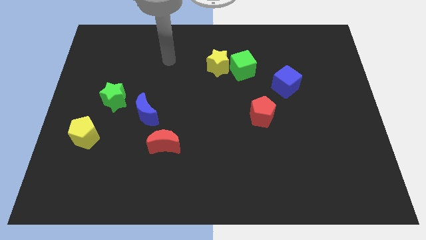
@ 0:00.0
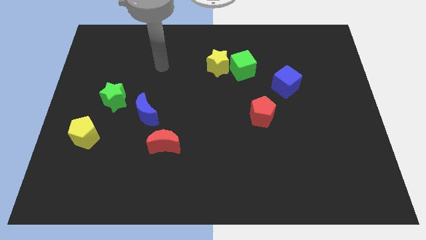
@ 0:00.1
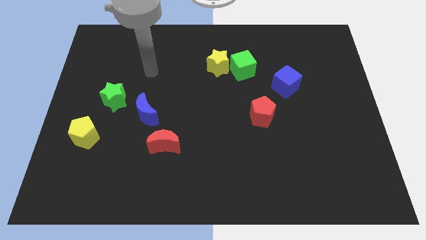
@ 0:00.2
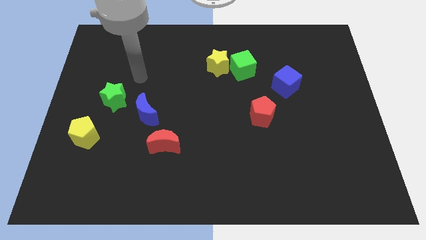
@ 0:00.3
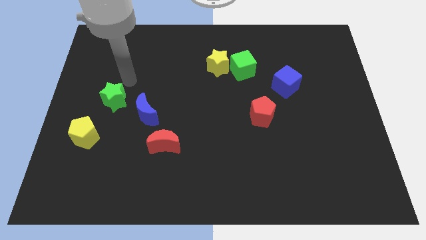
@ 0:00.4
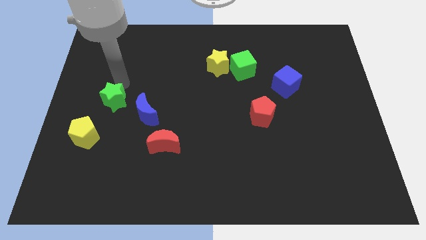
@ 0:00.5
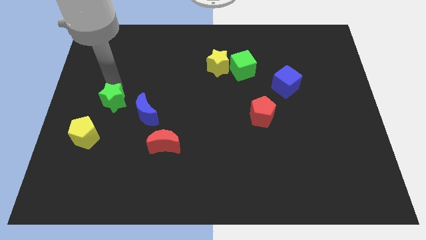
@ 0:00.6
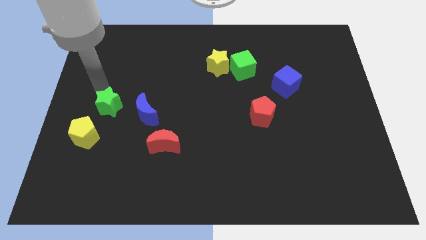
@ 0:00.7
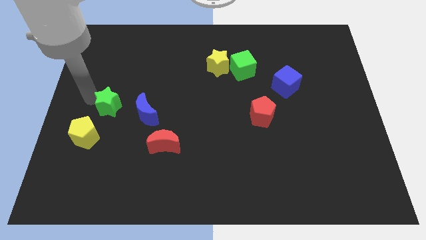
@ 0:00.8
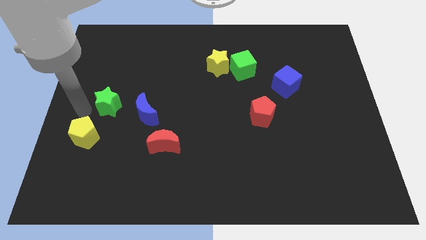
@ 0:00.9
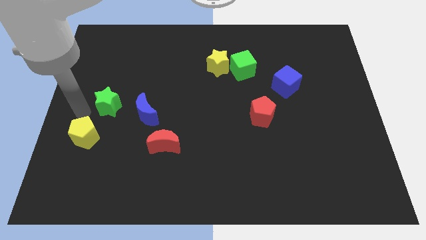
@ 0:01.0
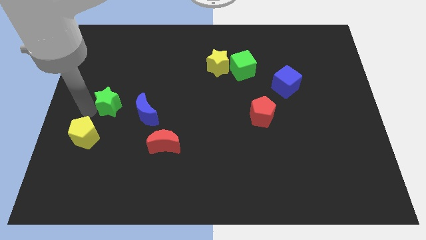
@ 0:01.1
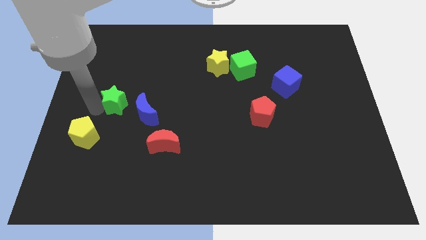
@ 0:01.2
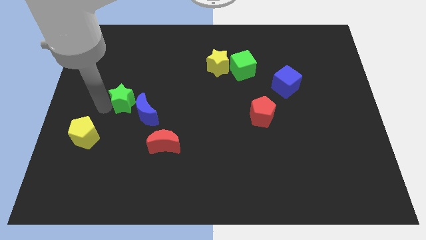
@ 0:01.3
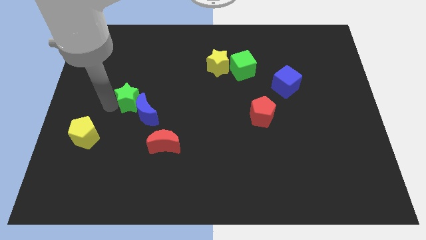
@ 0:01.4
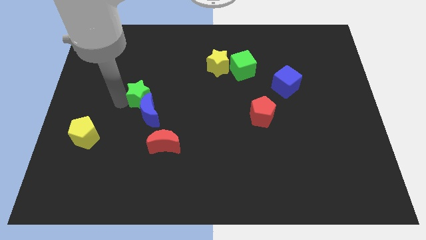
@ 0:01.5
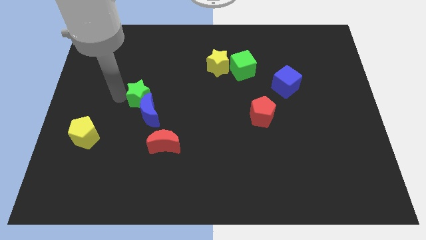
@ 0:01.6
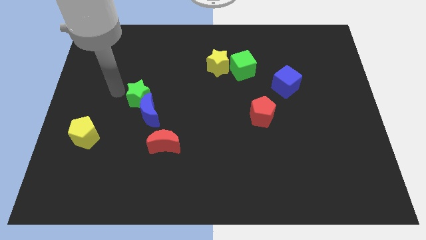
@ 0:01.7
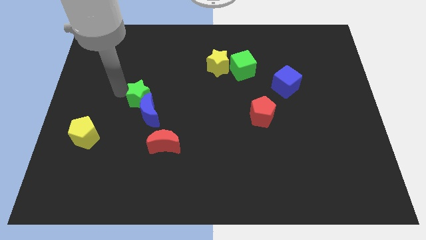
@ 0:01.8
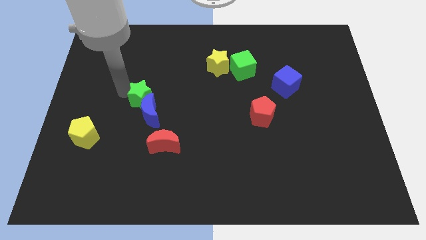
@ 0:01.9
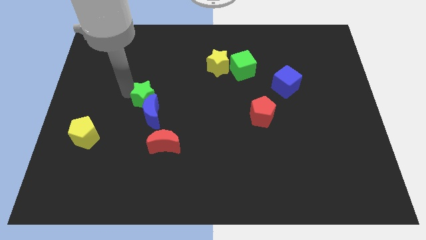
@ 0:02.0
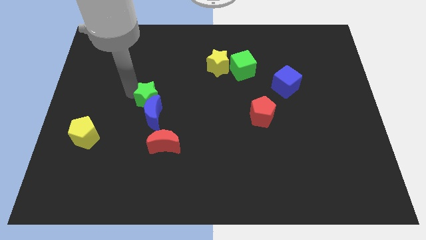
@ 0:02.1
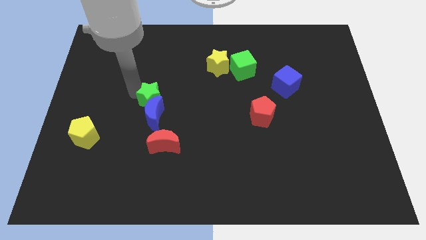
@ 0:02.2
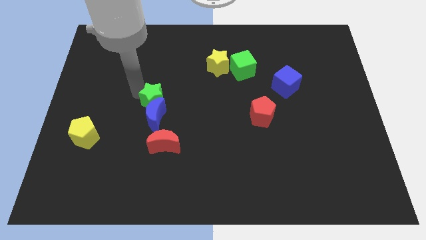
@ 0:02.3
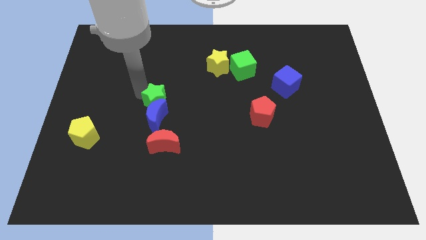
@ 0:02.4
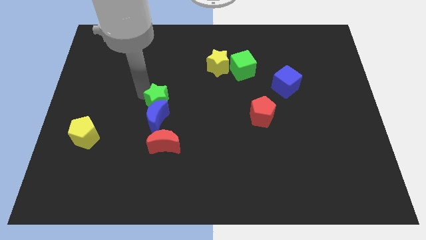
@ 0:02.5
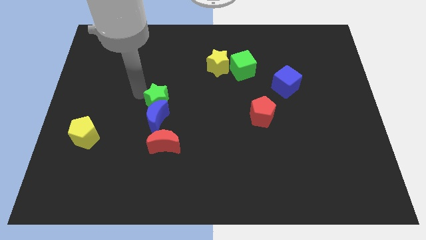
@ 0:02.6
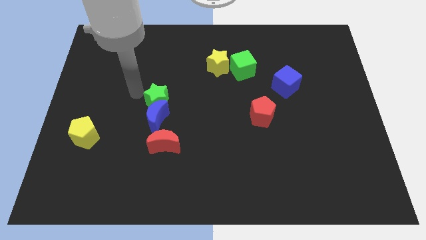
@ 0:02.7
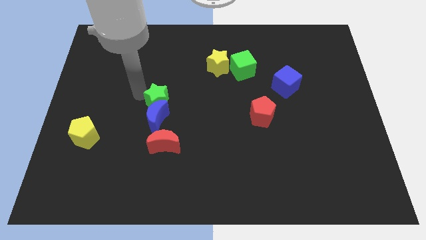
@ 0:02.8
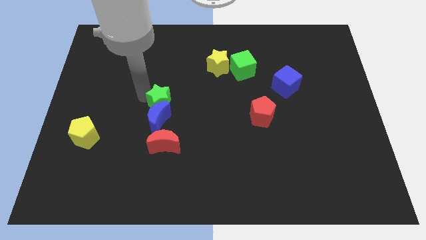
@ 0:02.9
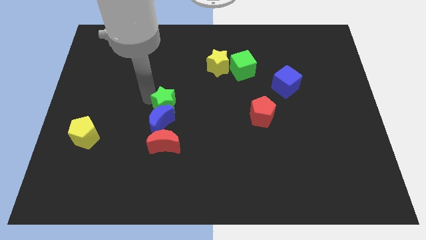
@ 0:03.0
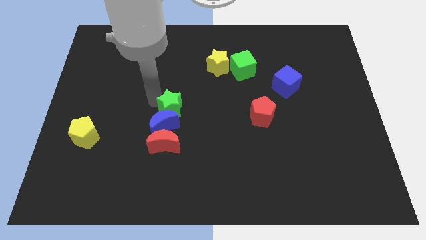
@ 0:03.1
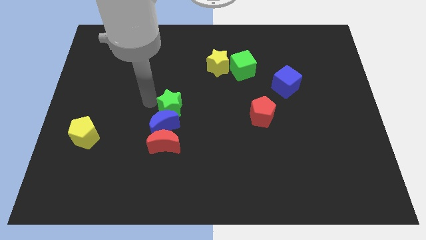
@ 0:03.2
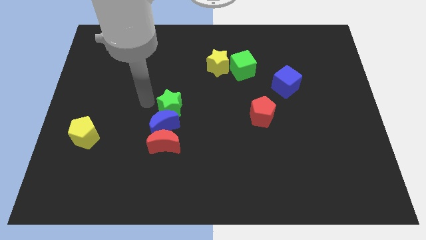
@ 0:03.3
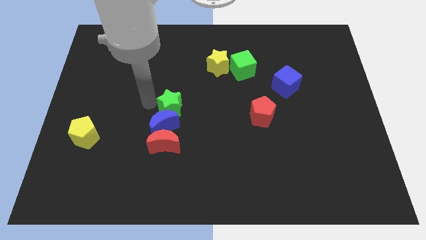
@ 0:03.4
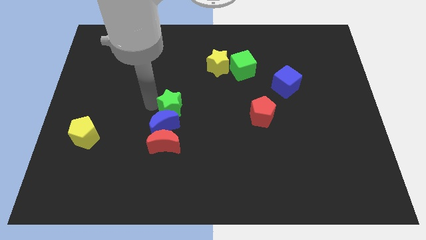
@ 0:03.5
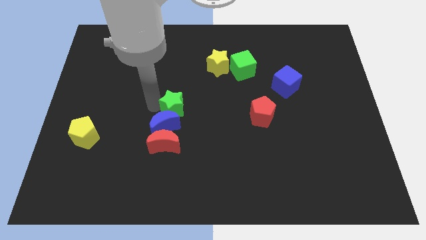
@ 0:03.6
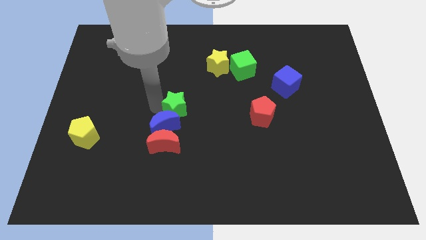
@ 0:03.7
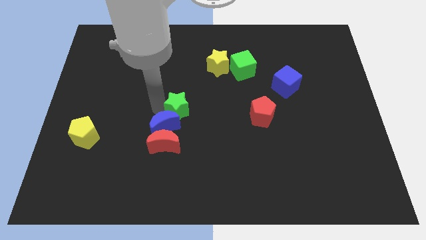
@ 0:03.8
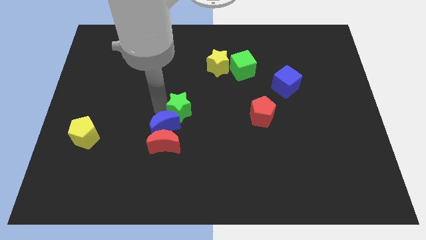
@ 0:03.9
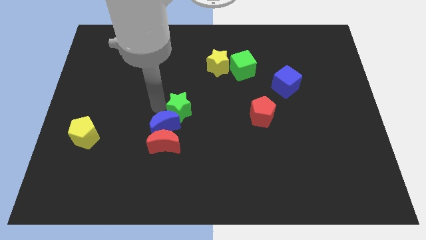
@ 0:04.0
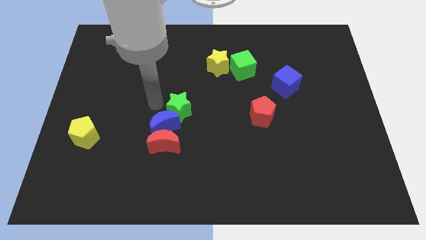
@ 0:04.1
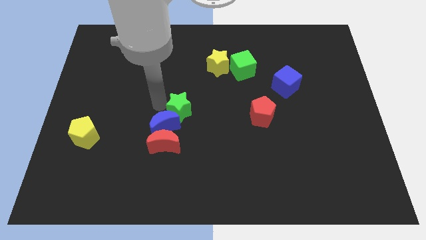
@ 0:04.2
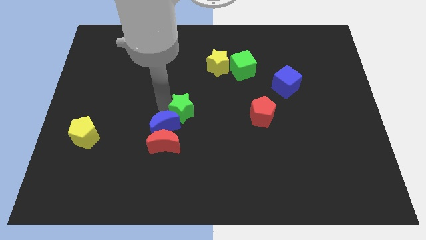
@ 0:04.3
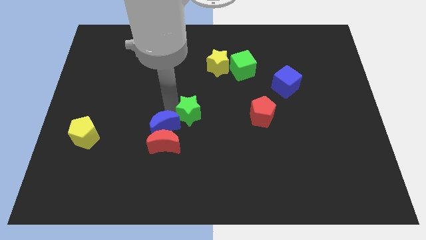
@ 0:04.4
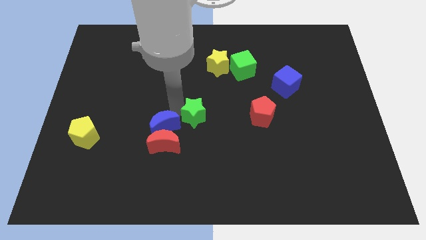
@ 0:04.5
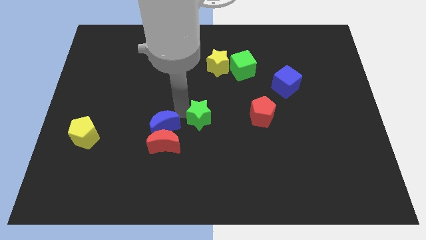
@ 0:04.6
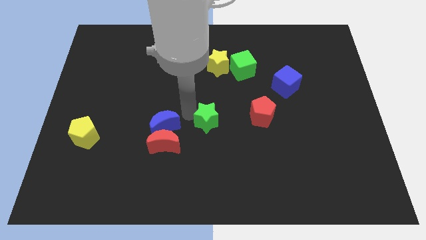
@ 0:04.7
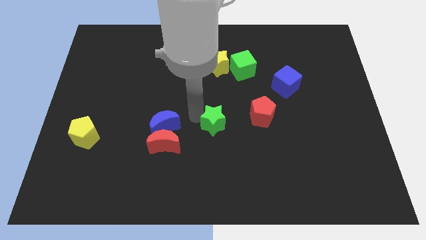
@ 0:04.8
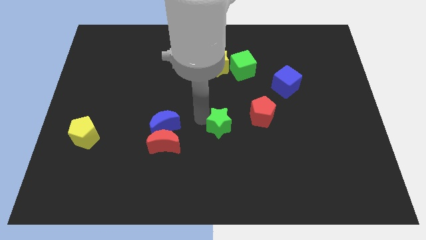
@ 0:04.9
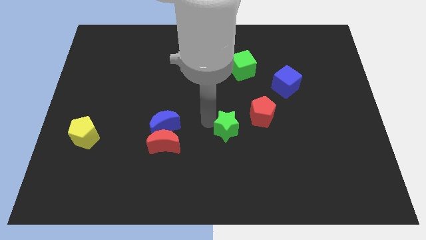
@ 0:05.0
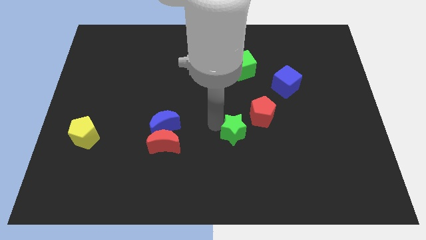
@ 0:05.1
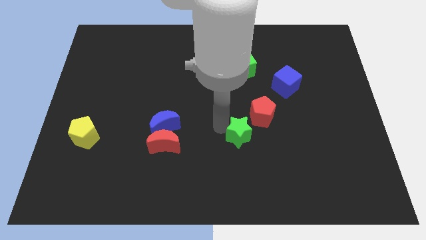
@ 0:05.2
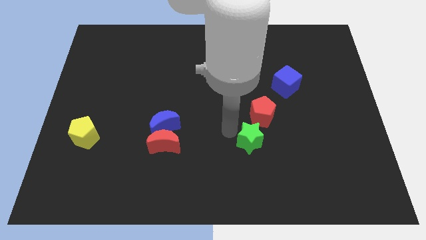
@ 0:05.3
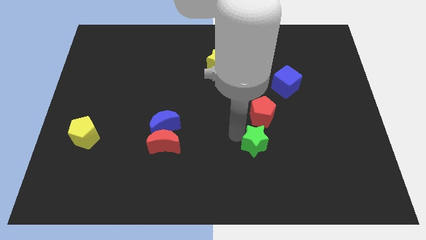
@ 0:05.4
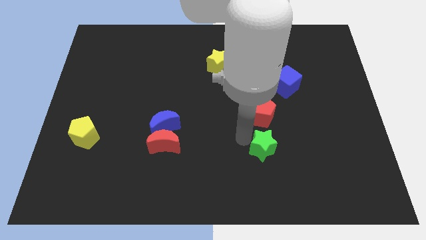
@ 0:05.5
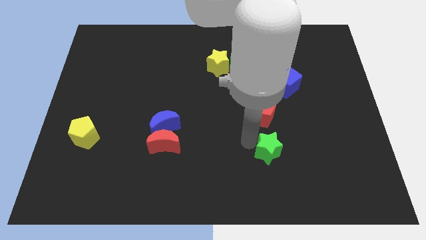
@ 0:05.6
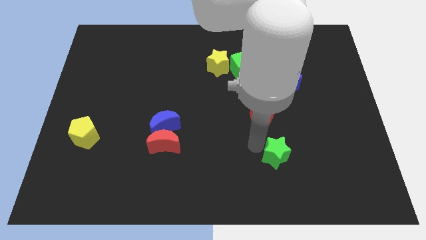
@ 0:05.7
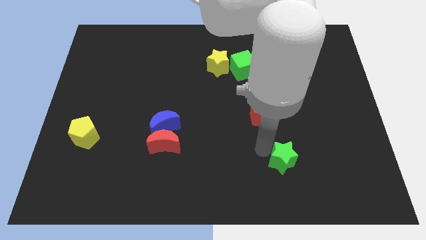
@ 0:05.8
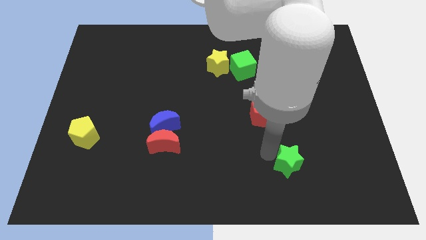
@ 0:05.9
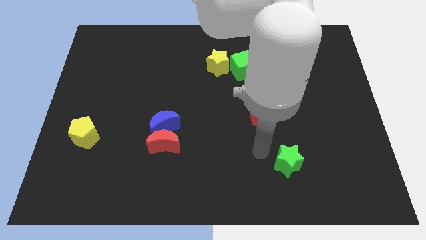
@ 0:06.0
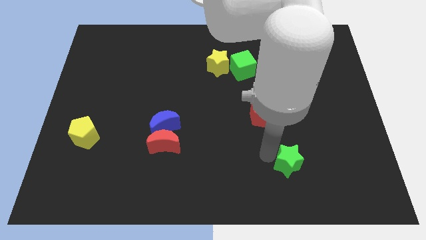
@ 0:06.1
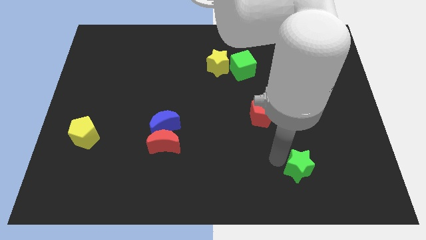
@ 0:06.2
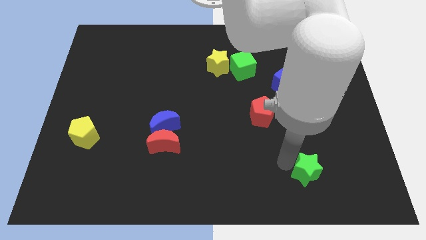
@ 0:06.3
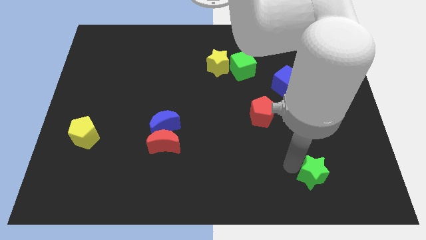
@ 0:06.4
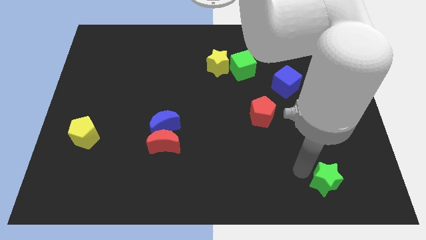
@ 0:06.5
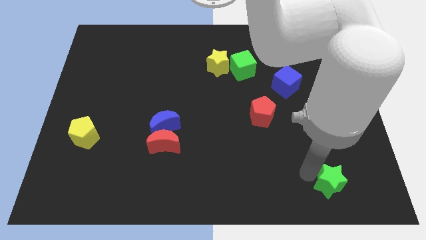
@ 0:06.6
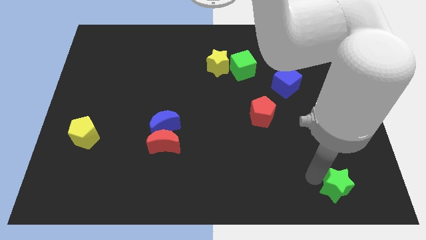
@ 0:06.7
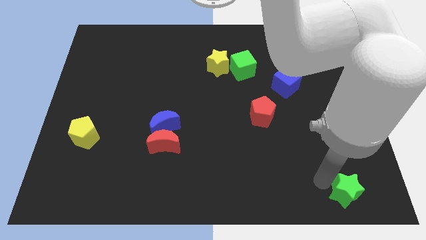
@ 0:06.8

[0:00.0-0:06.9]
put the green star to the bottom right

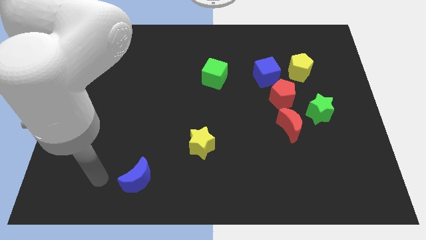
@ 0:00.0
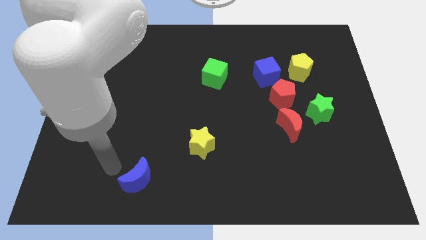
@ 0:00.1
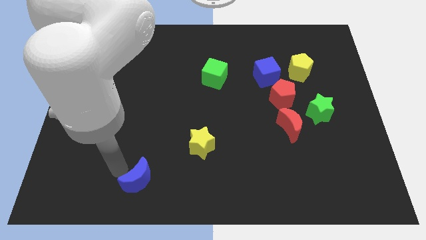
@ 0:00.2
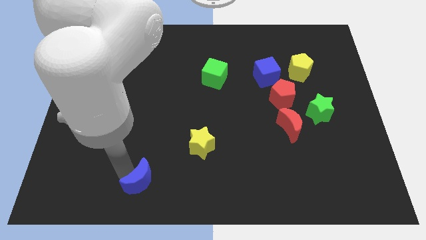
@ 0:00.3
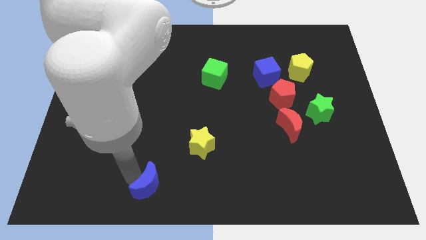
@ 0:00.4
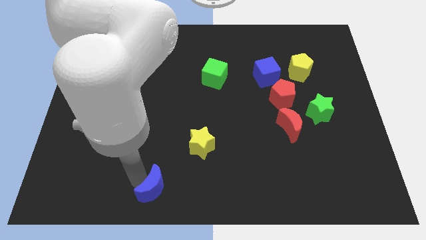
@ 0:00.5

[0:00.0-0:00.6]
slide the blue moon to the bottom
